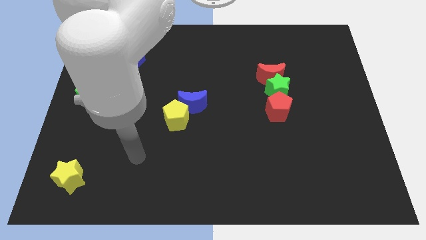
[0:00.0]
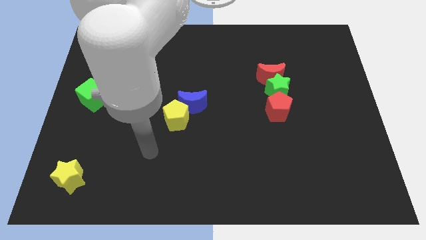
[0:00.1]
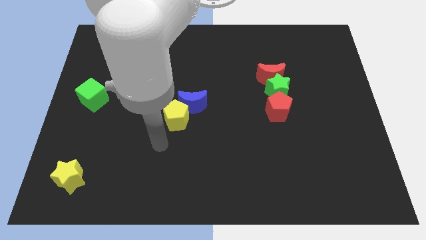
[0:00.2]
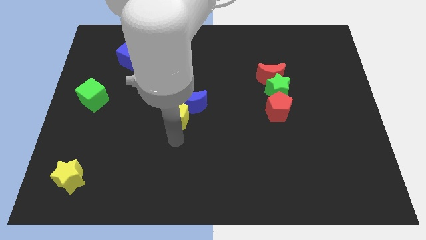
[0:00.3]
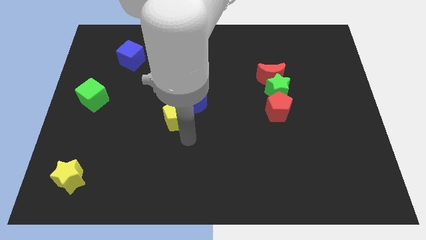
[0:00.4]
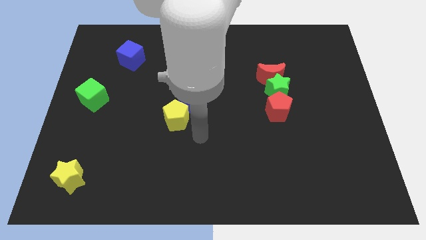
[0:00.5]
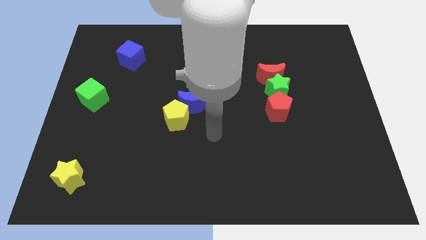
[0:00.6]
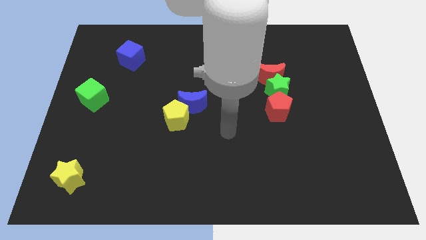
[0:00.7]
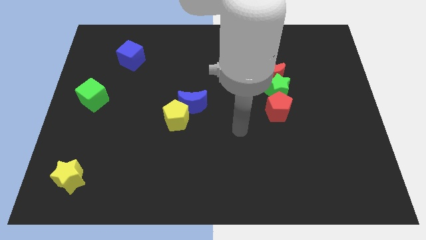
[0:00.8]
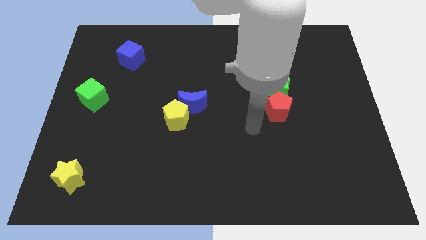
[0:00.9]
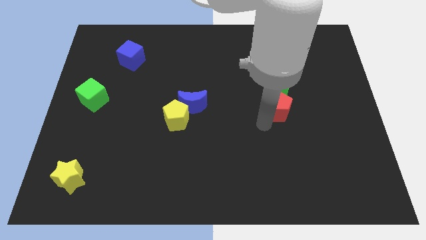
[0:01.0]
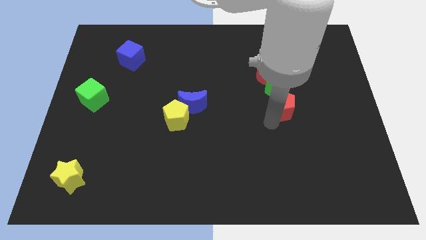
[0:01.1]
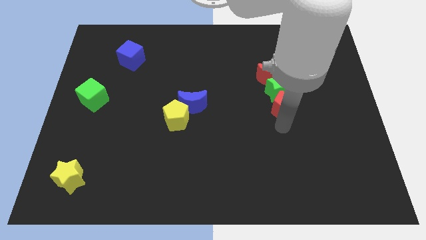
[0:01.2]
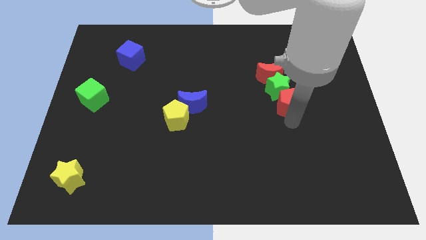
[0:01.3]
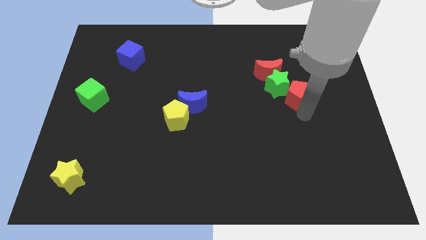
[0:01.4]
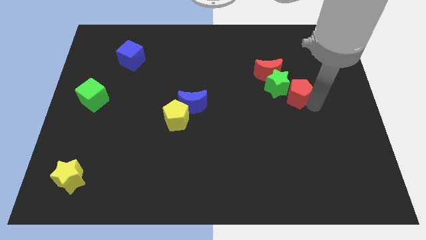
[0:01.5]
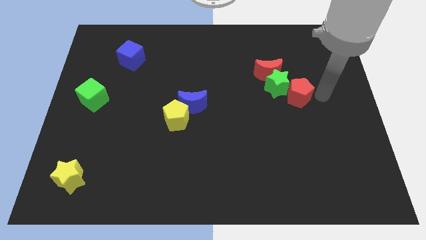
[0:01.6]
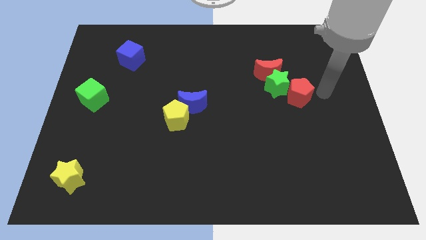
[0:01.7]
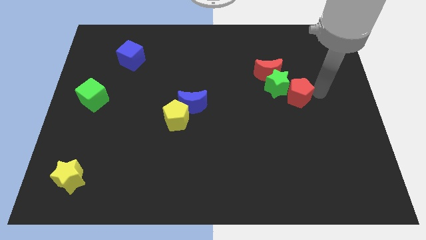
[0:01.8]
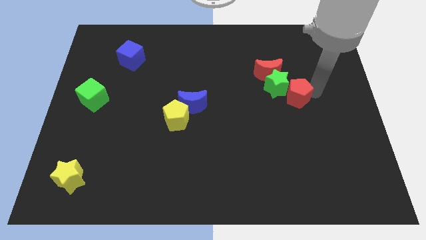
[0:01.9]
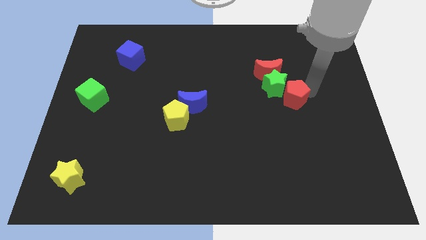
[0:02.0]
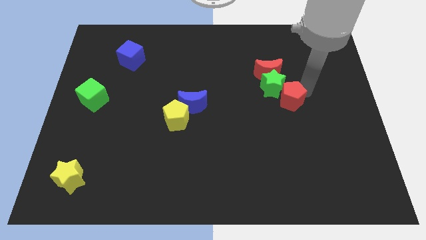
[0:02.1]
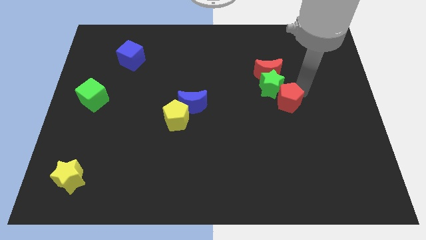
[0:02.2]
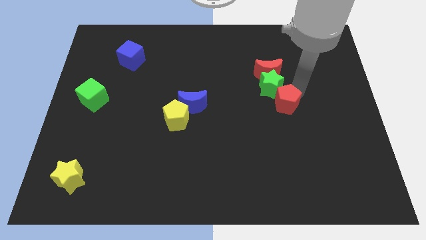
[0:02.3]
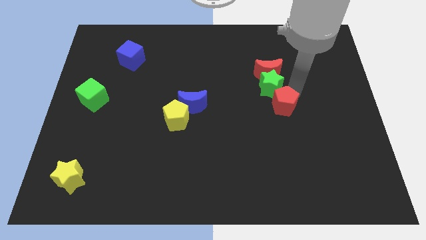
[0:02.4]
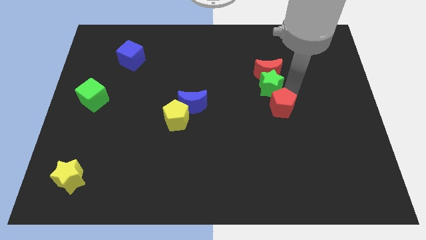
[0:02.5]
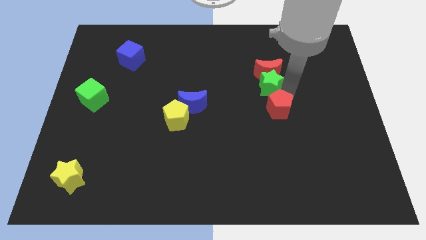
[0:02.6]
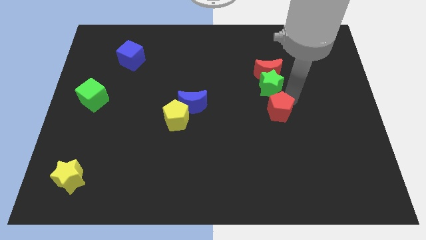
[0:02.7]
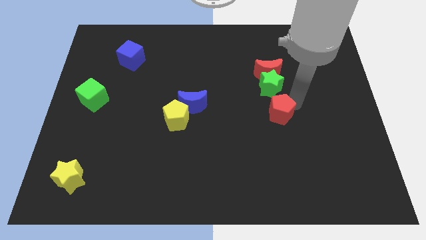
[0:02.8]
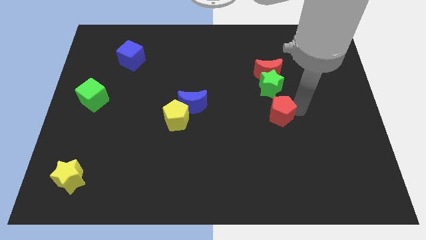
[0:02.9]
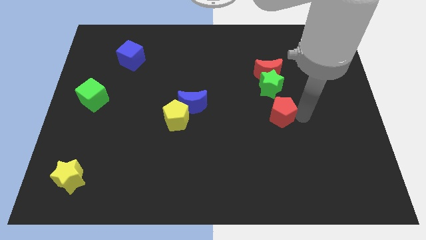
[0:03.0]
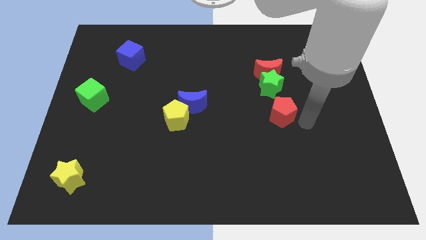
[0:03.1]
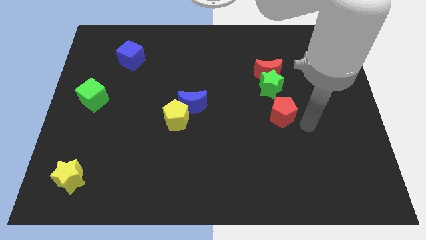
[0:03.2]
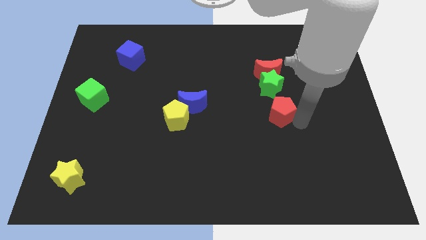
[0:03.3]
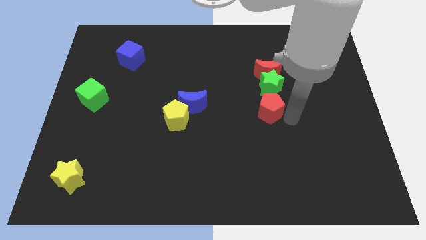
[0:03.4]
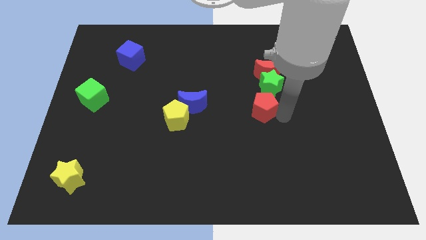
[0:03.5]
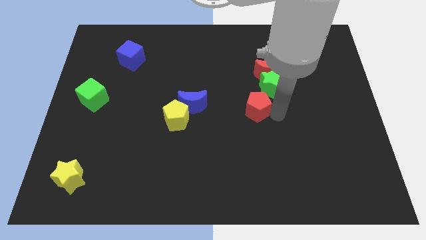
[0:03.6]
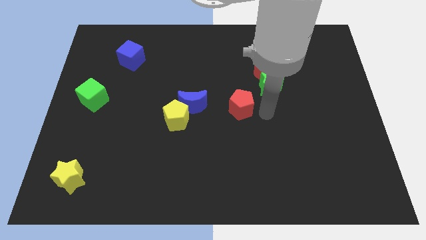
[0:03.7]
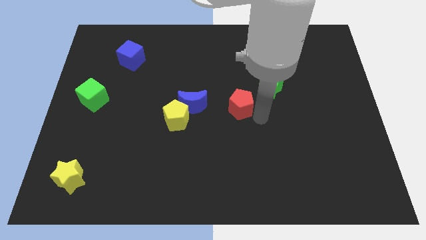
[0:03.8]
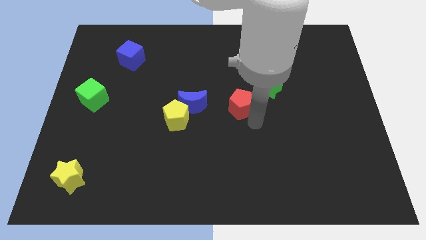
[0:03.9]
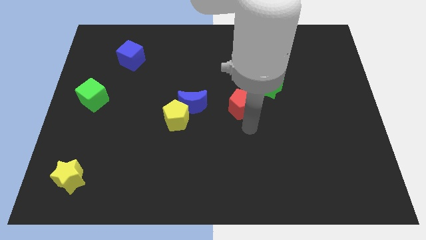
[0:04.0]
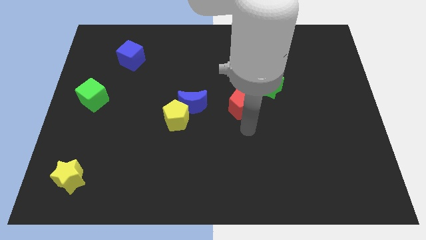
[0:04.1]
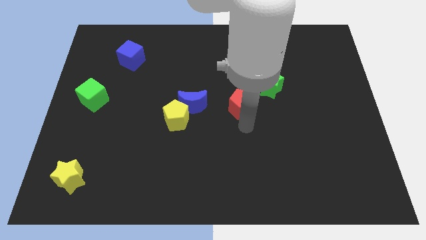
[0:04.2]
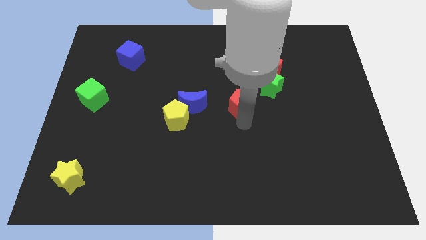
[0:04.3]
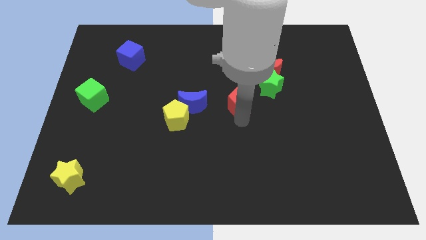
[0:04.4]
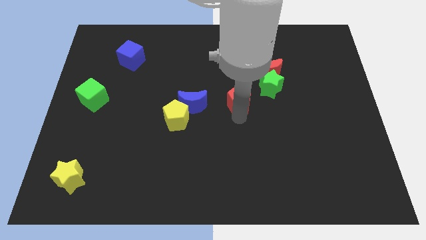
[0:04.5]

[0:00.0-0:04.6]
slightly slide the red pentagon upwards and left

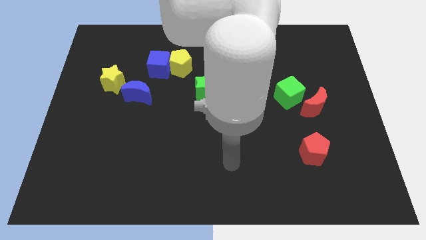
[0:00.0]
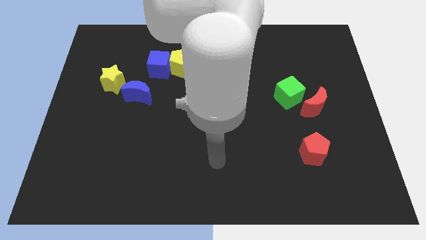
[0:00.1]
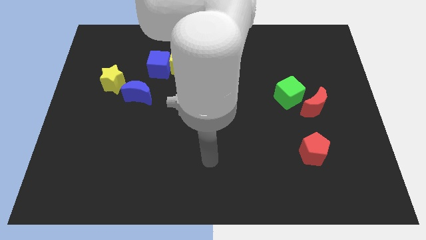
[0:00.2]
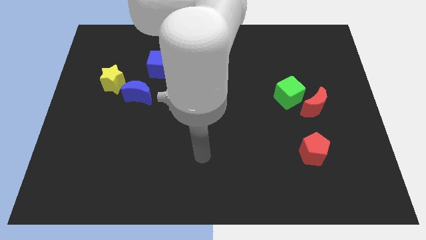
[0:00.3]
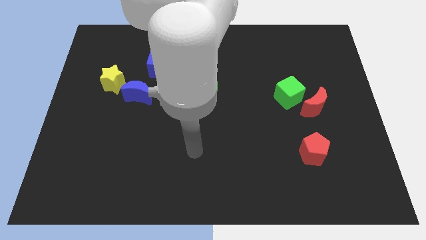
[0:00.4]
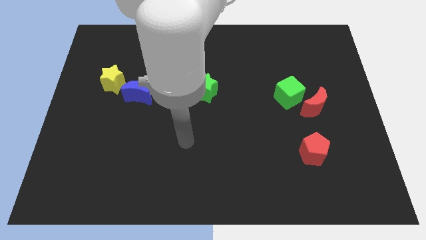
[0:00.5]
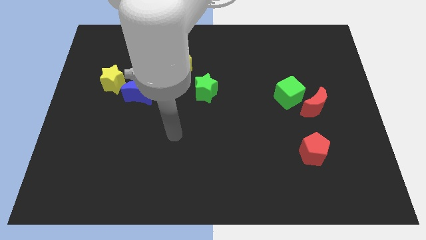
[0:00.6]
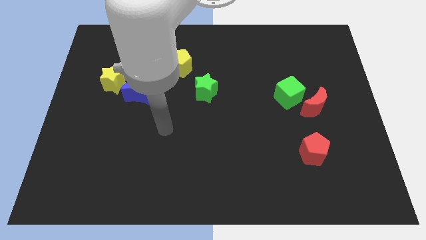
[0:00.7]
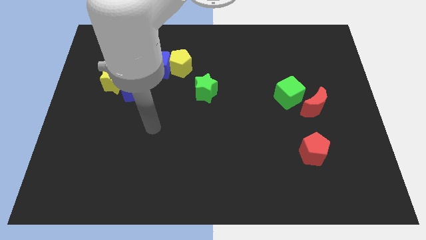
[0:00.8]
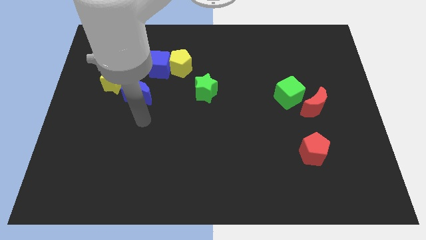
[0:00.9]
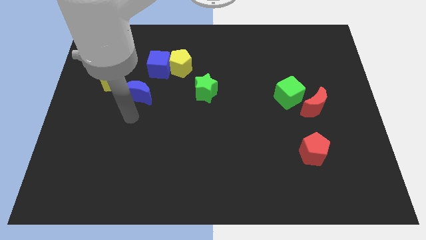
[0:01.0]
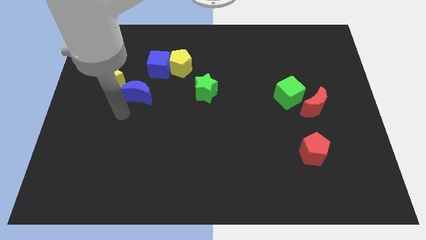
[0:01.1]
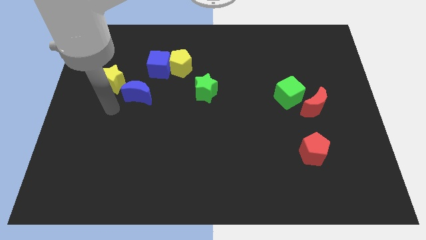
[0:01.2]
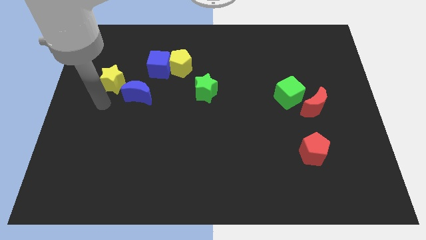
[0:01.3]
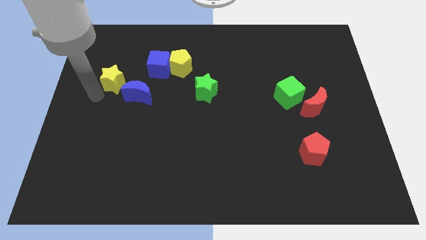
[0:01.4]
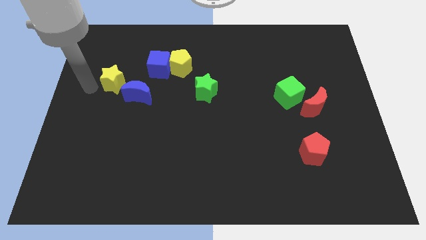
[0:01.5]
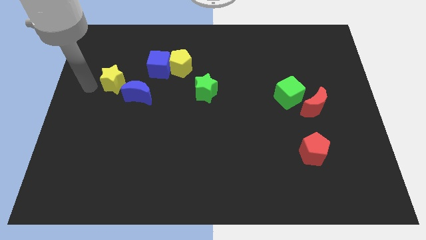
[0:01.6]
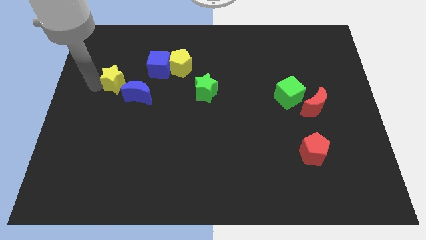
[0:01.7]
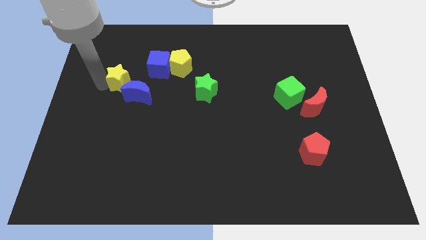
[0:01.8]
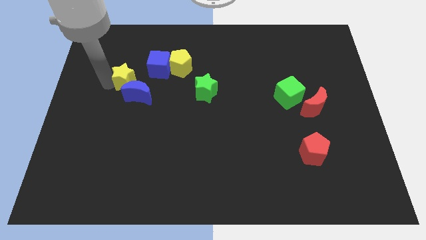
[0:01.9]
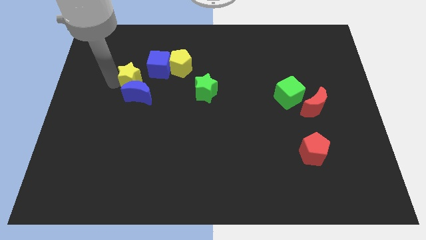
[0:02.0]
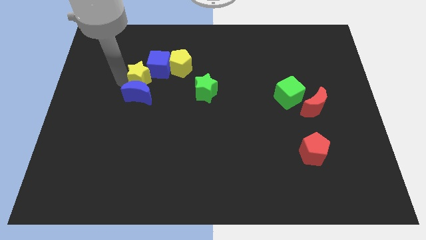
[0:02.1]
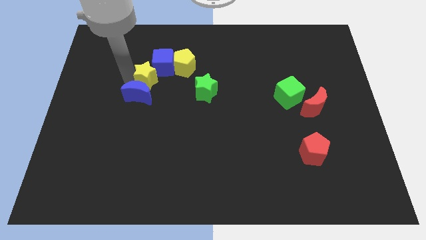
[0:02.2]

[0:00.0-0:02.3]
push the yellow star to the right a bit

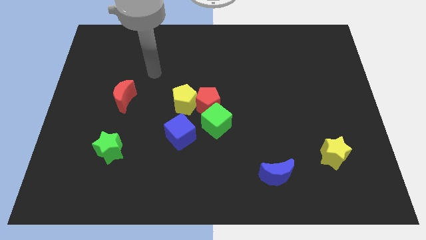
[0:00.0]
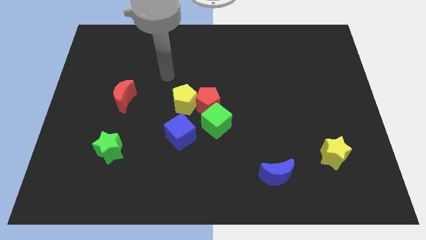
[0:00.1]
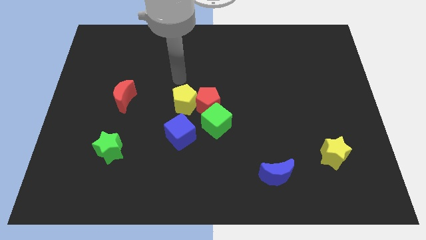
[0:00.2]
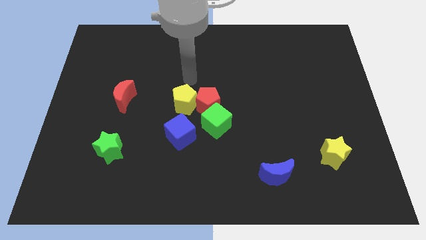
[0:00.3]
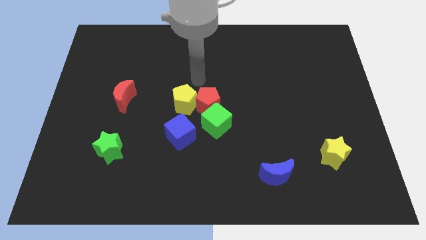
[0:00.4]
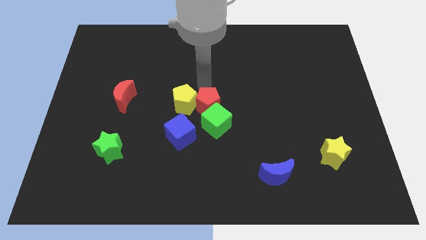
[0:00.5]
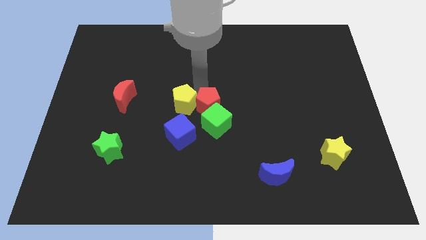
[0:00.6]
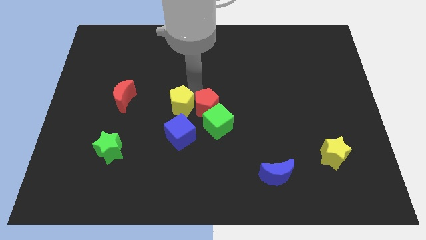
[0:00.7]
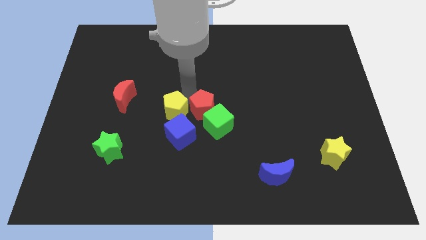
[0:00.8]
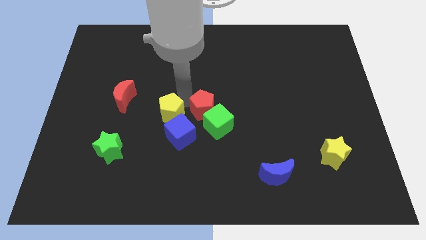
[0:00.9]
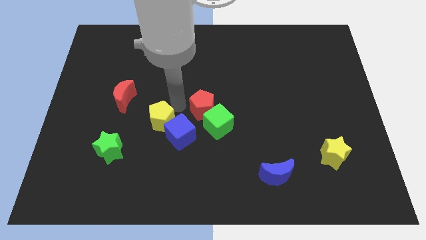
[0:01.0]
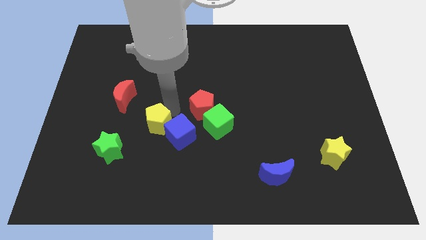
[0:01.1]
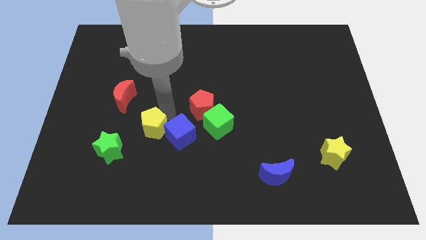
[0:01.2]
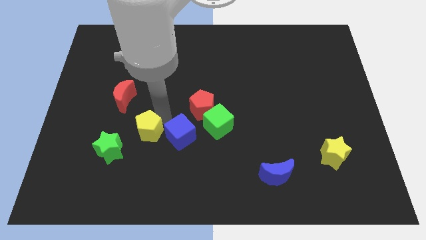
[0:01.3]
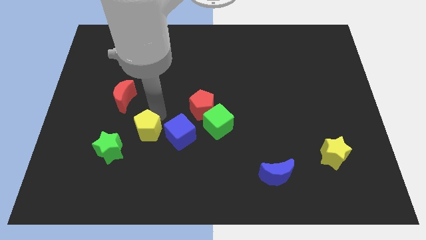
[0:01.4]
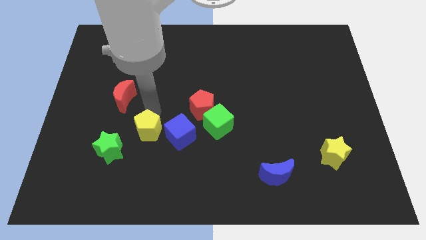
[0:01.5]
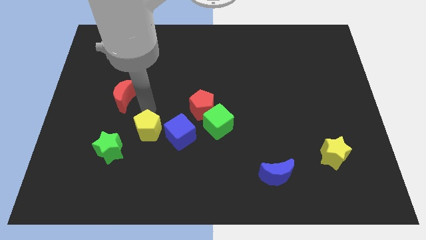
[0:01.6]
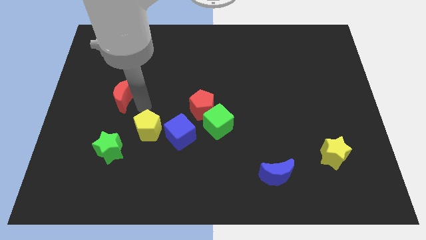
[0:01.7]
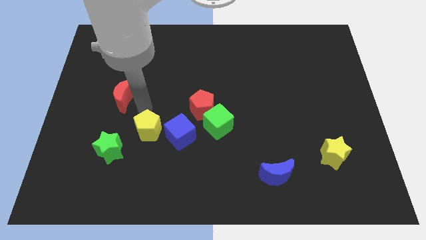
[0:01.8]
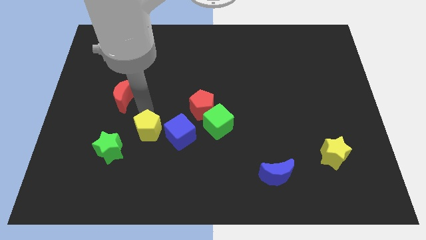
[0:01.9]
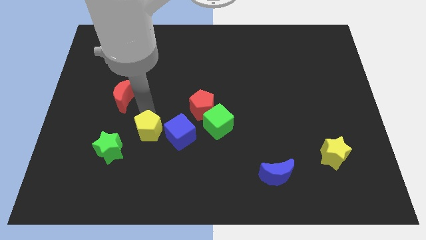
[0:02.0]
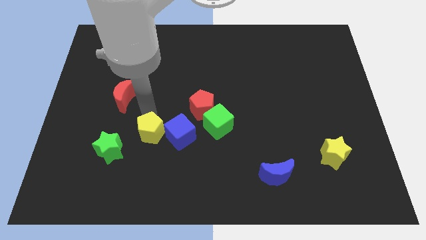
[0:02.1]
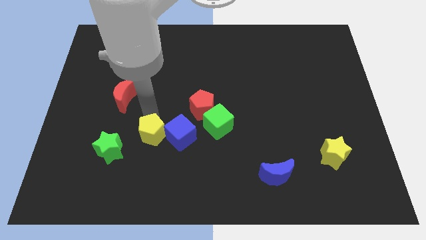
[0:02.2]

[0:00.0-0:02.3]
slightly push the yellow pentagon down
